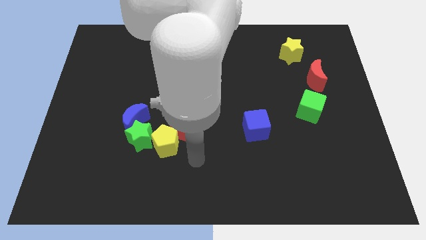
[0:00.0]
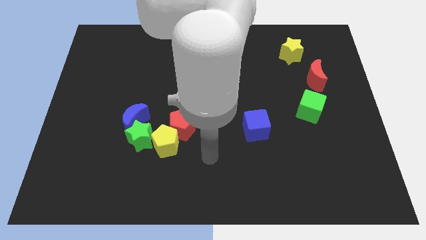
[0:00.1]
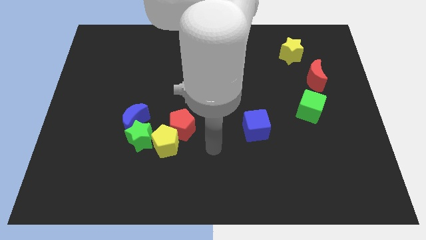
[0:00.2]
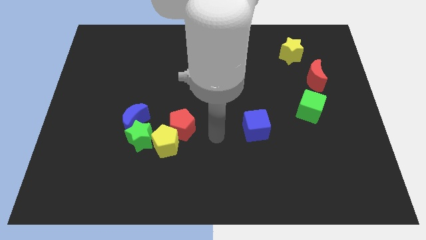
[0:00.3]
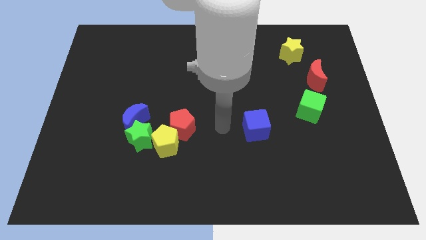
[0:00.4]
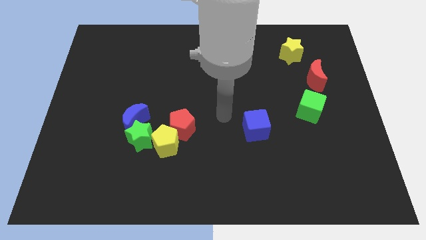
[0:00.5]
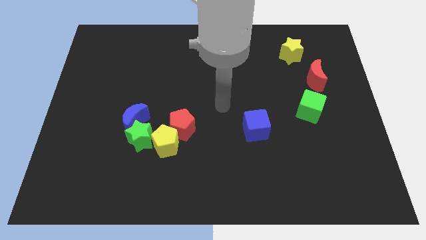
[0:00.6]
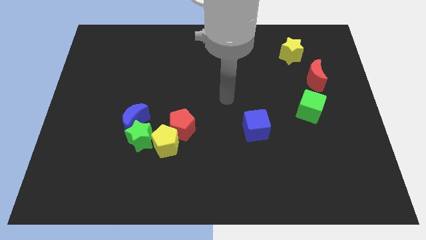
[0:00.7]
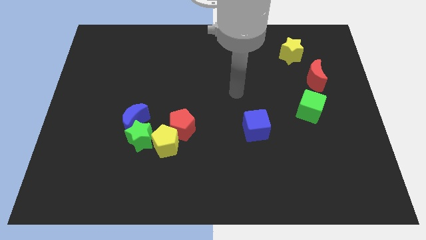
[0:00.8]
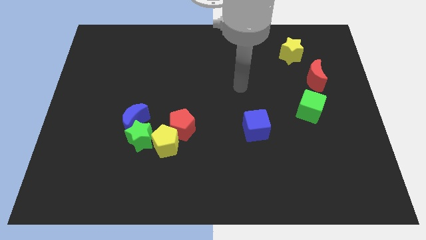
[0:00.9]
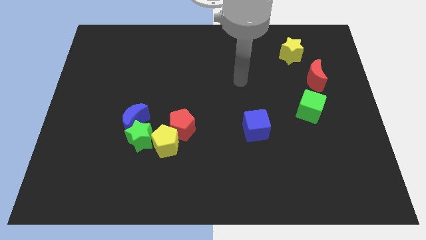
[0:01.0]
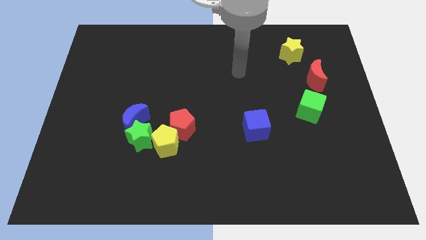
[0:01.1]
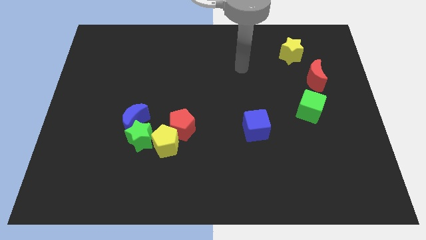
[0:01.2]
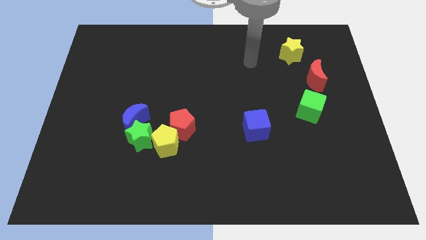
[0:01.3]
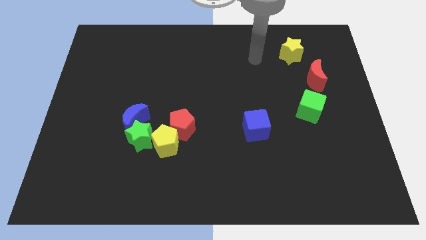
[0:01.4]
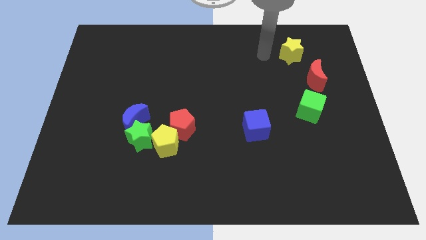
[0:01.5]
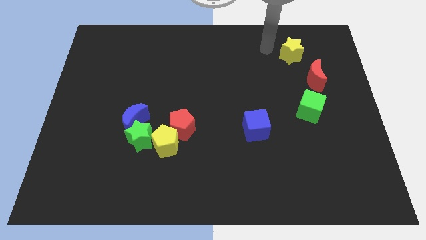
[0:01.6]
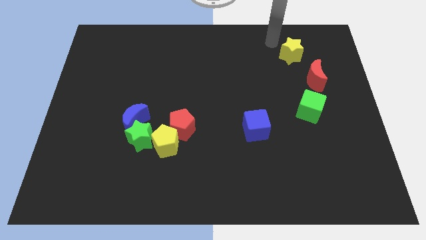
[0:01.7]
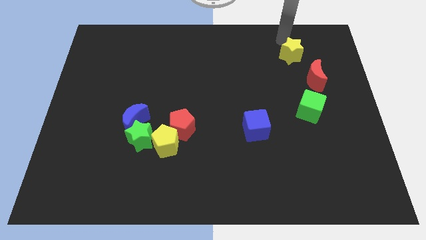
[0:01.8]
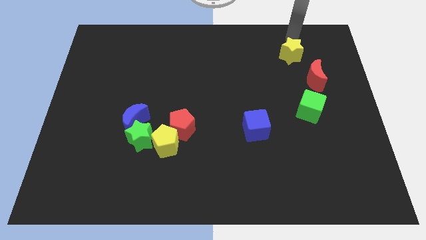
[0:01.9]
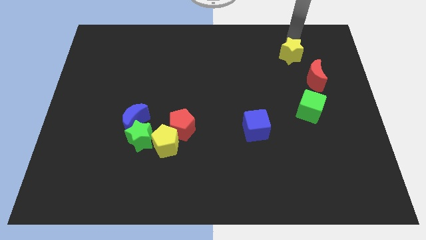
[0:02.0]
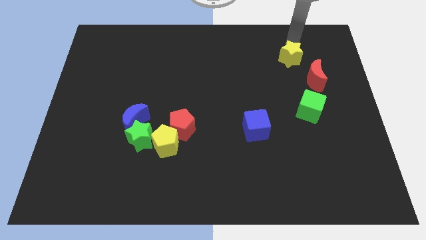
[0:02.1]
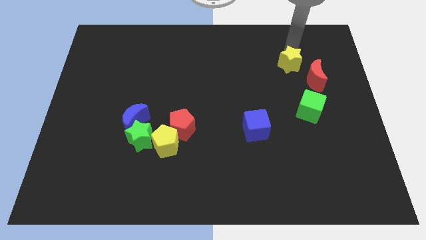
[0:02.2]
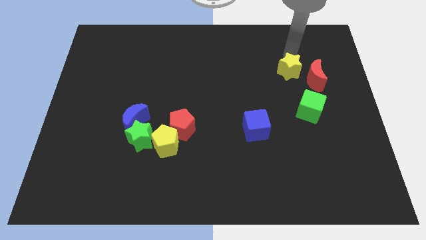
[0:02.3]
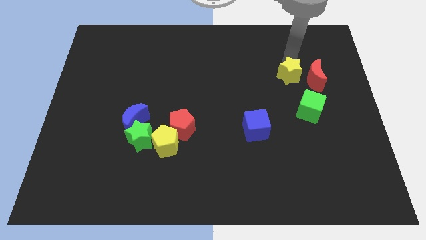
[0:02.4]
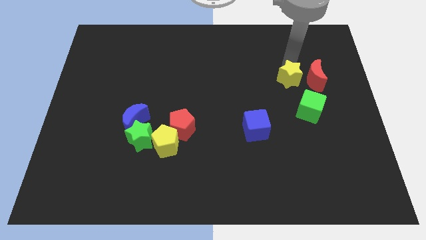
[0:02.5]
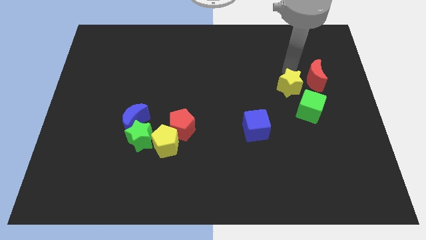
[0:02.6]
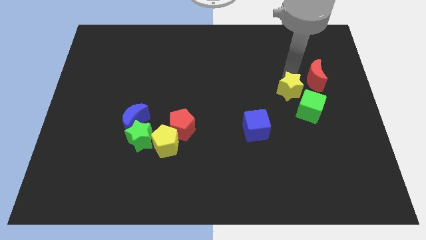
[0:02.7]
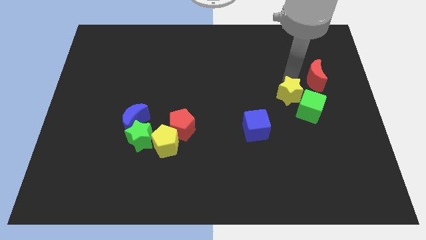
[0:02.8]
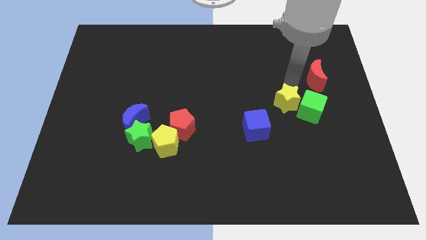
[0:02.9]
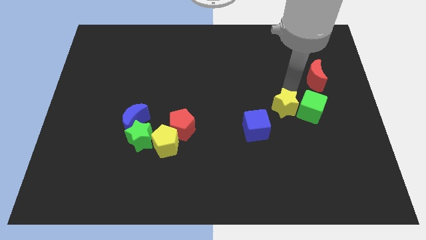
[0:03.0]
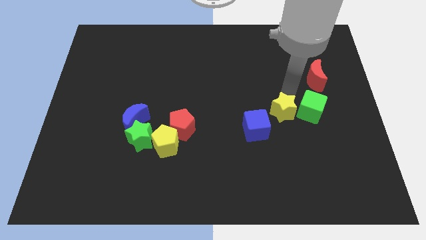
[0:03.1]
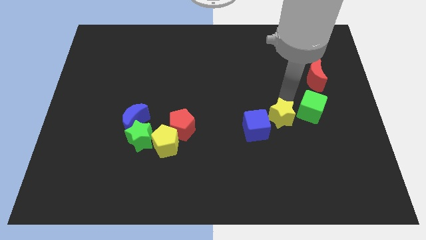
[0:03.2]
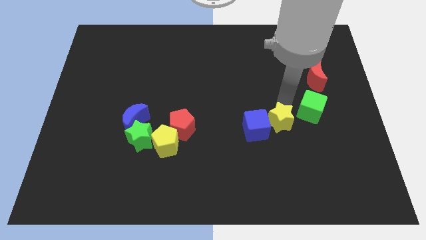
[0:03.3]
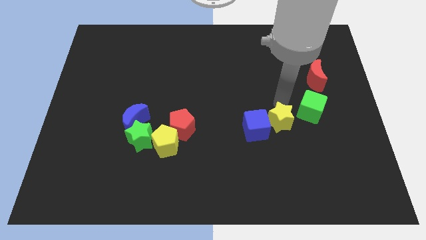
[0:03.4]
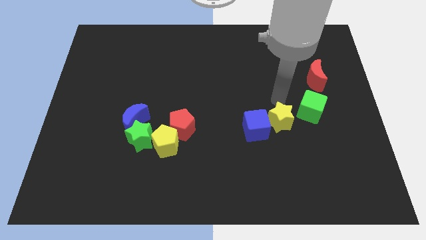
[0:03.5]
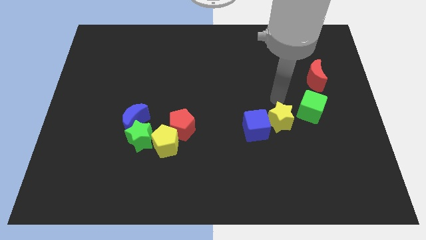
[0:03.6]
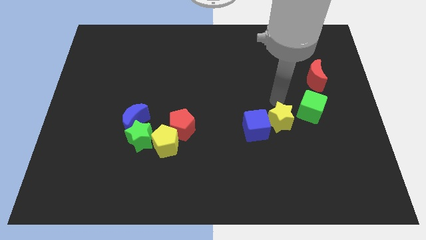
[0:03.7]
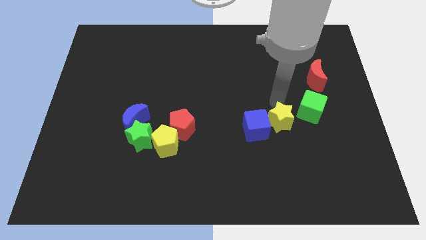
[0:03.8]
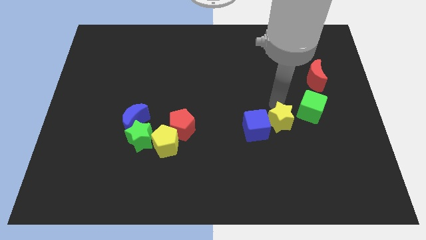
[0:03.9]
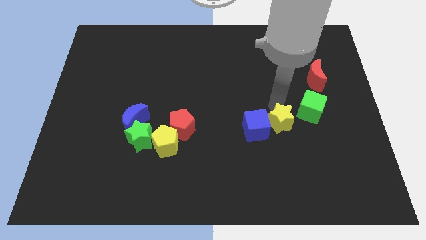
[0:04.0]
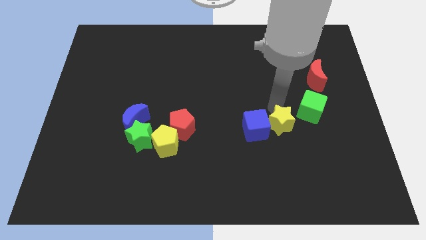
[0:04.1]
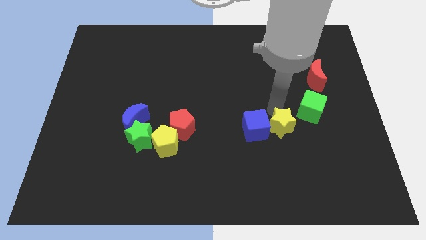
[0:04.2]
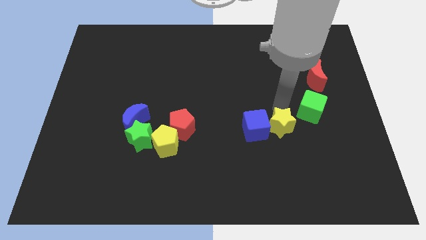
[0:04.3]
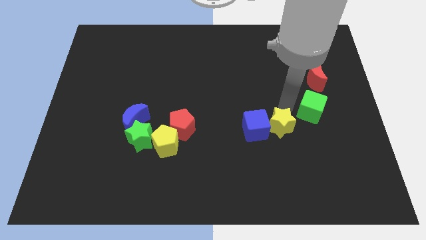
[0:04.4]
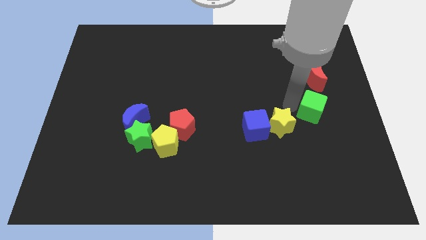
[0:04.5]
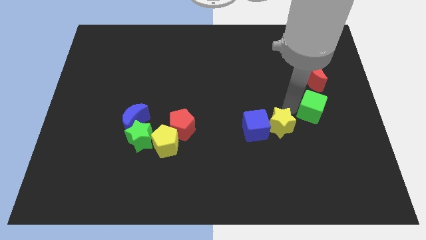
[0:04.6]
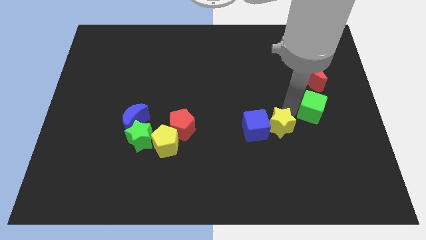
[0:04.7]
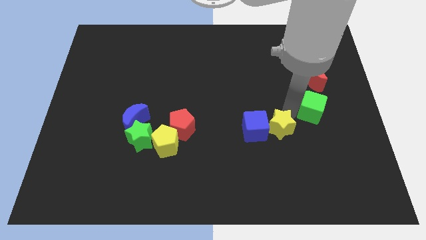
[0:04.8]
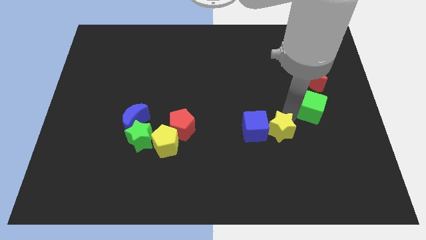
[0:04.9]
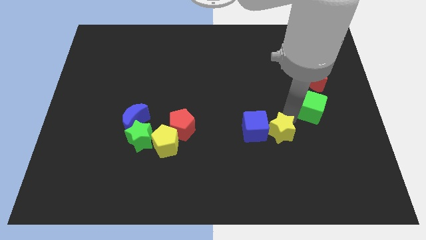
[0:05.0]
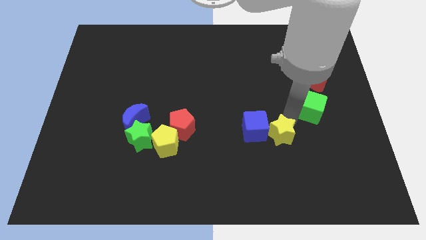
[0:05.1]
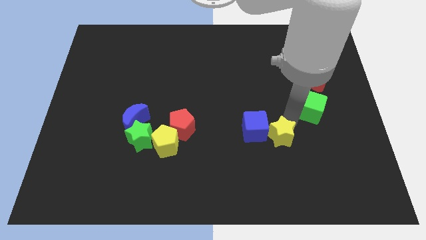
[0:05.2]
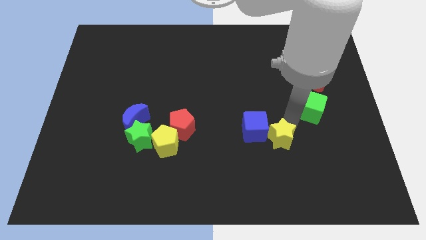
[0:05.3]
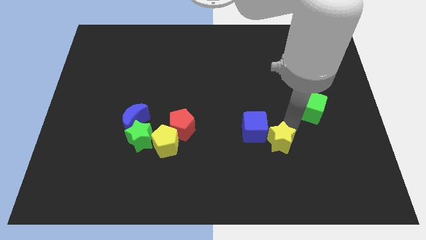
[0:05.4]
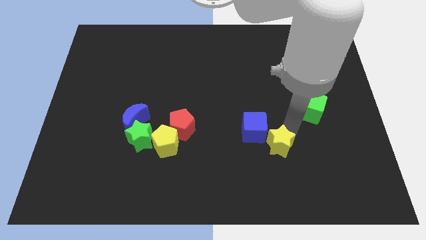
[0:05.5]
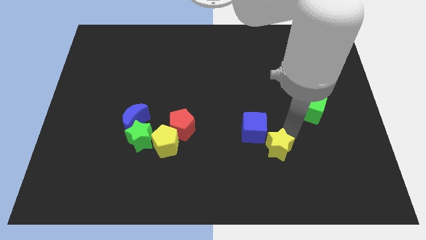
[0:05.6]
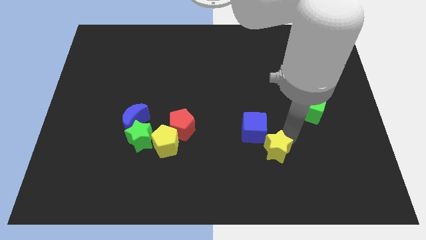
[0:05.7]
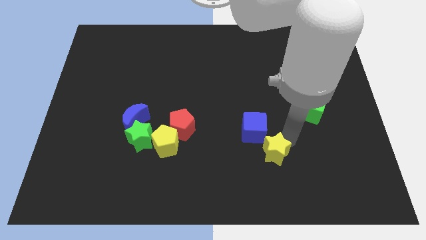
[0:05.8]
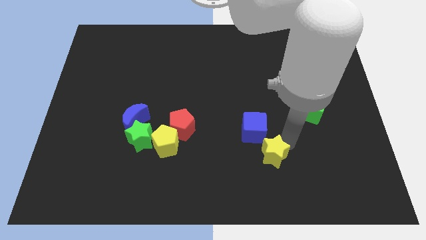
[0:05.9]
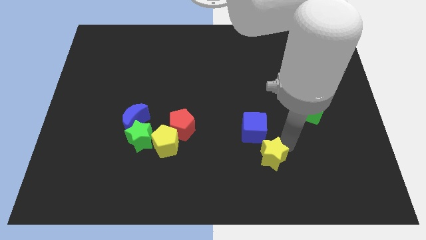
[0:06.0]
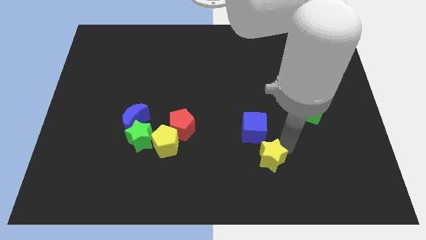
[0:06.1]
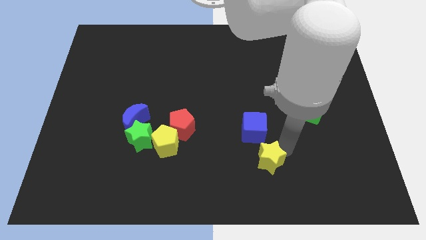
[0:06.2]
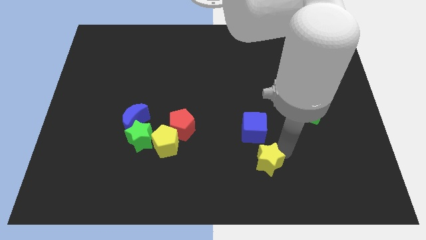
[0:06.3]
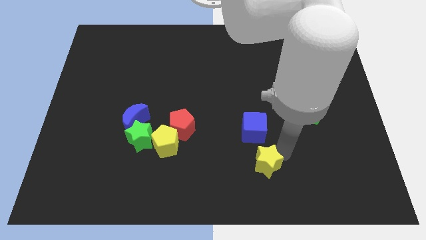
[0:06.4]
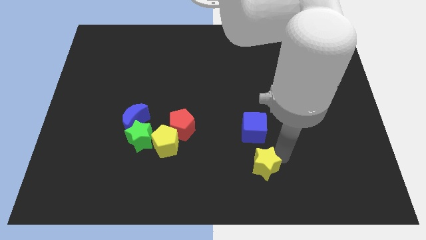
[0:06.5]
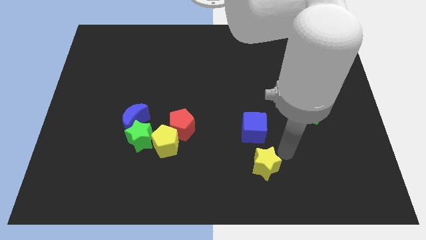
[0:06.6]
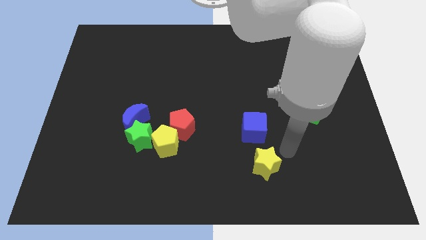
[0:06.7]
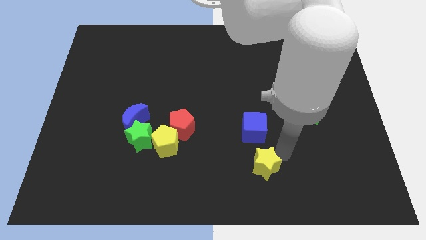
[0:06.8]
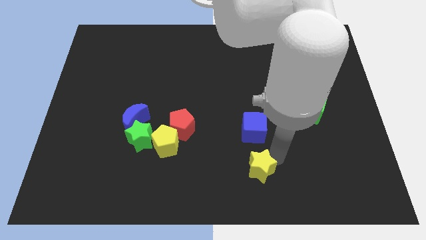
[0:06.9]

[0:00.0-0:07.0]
move the yellow star to the bottom side

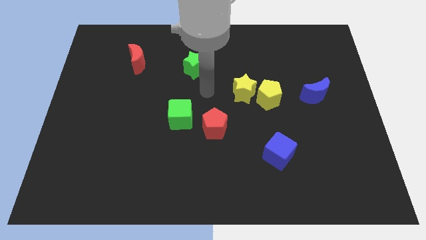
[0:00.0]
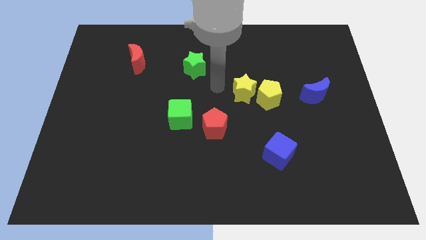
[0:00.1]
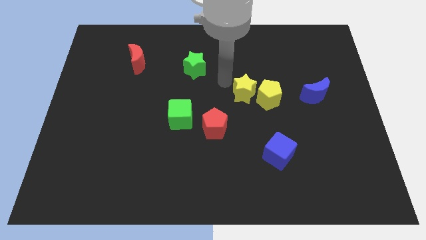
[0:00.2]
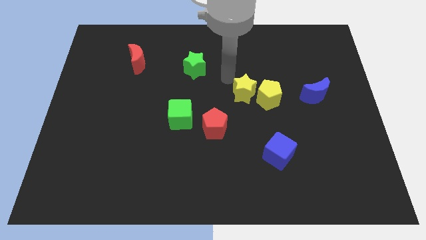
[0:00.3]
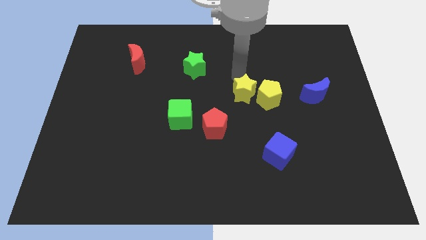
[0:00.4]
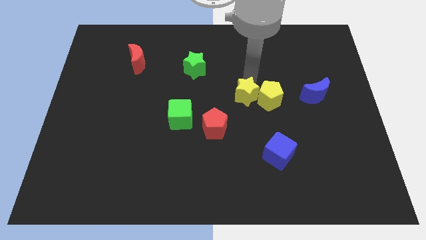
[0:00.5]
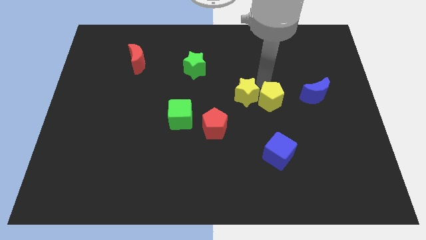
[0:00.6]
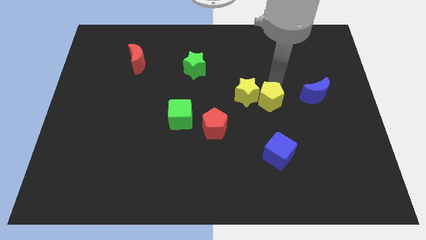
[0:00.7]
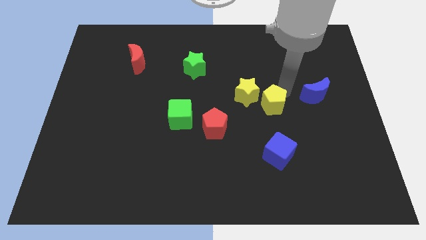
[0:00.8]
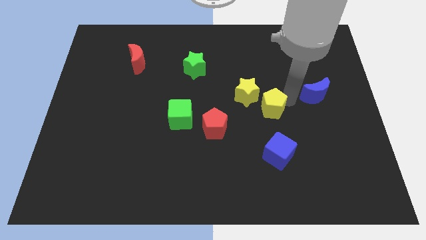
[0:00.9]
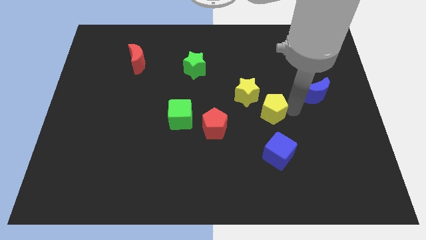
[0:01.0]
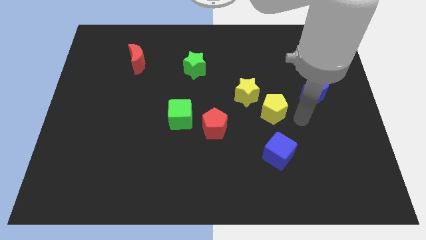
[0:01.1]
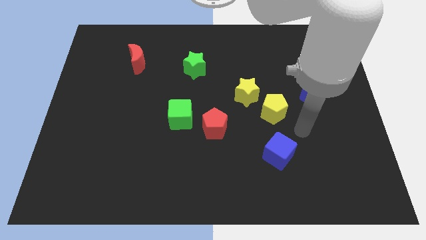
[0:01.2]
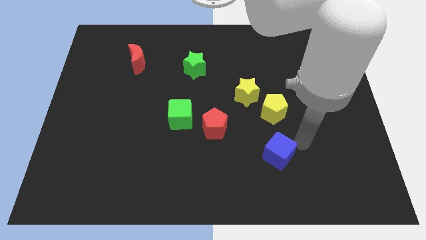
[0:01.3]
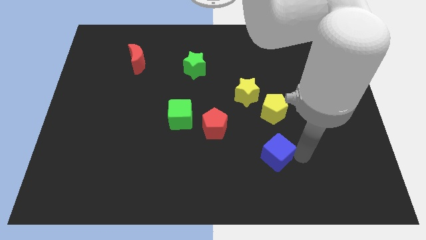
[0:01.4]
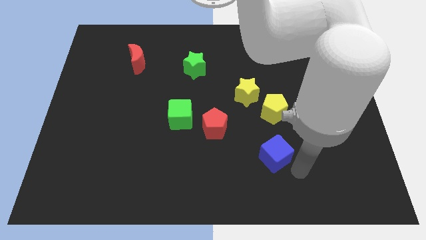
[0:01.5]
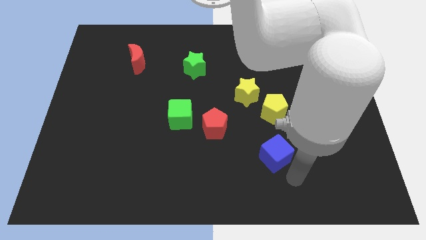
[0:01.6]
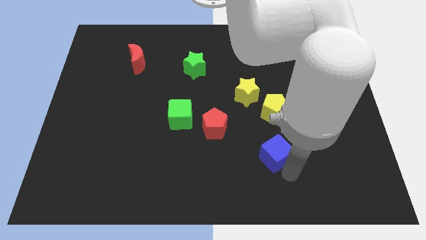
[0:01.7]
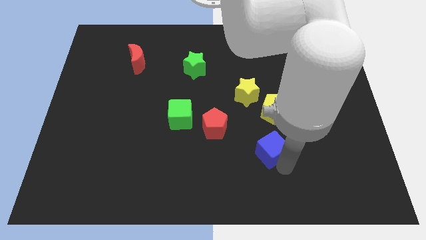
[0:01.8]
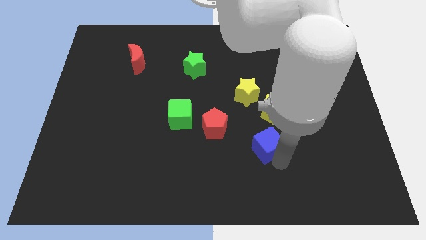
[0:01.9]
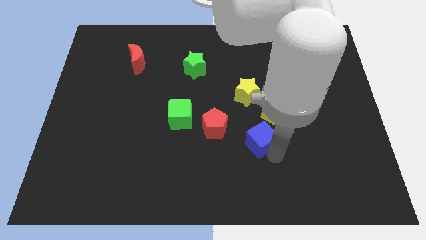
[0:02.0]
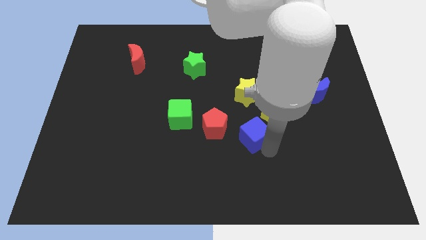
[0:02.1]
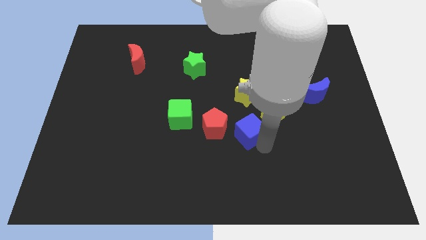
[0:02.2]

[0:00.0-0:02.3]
slide the blue cube to the middle
